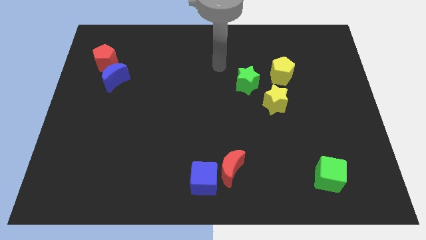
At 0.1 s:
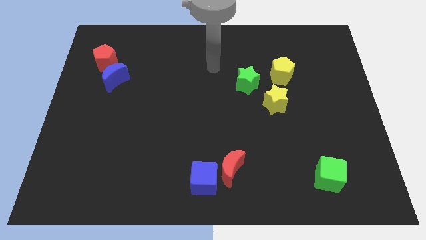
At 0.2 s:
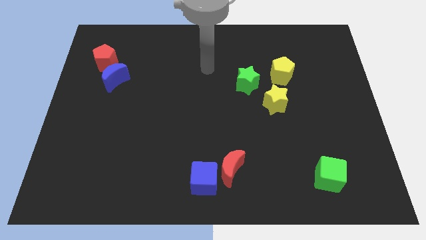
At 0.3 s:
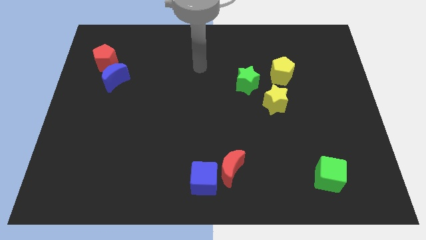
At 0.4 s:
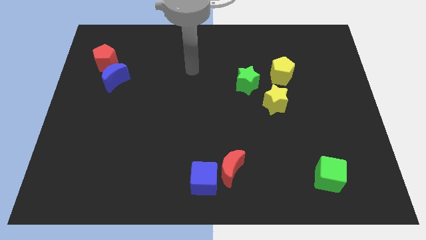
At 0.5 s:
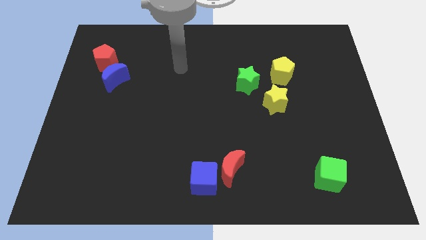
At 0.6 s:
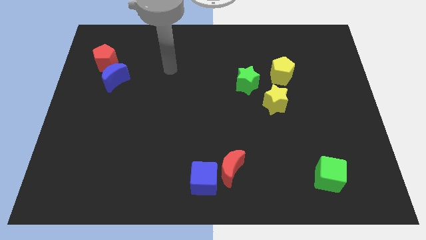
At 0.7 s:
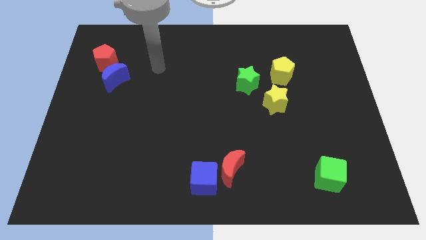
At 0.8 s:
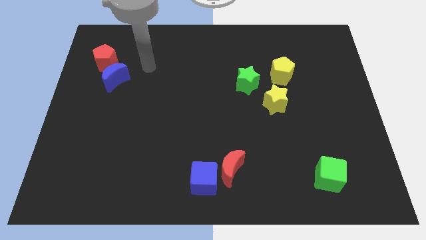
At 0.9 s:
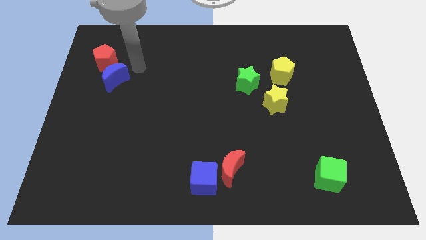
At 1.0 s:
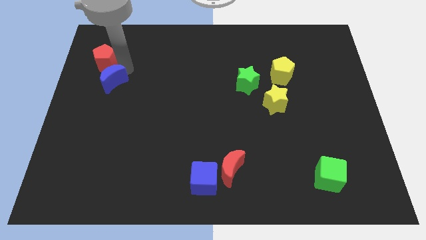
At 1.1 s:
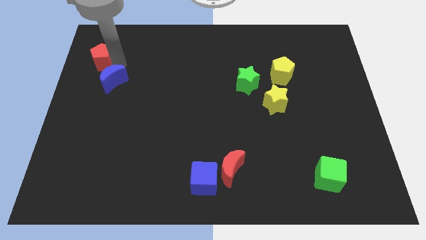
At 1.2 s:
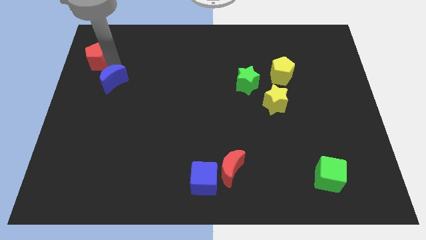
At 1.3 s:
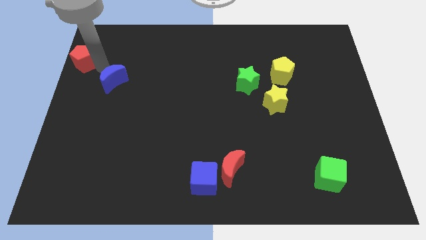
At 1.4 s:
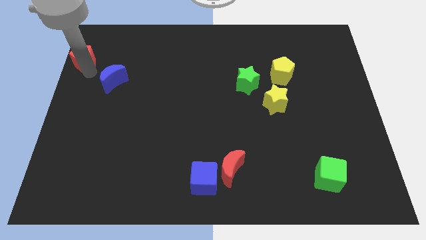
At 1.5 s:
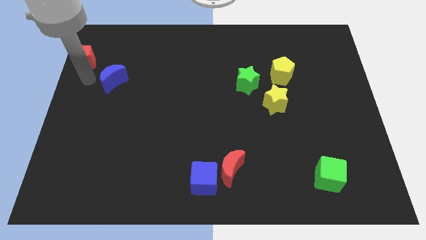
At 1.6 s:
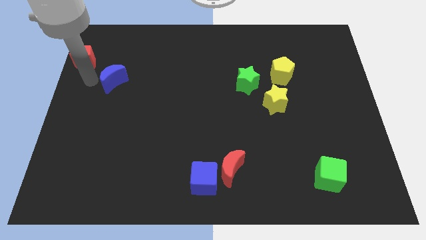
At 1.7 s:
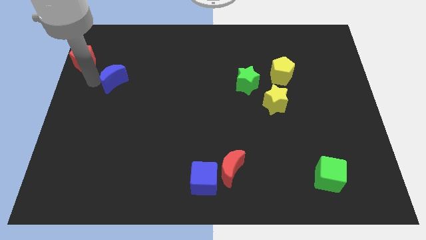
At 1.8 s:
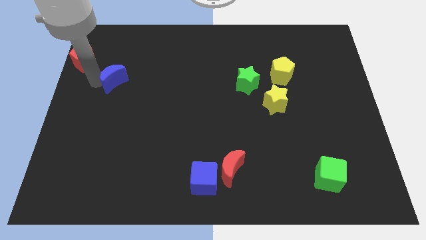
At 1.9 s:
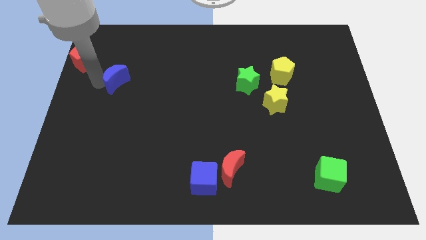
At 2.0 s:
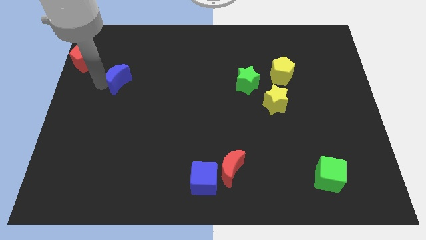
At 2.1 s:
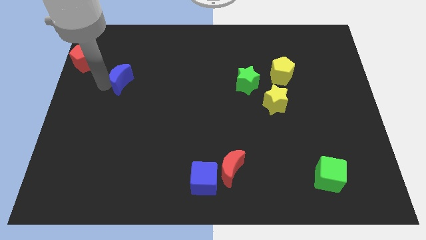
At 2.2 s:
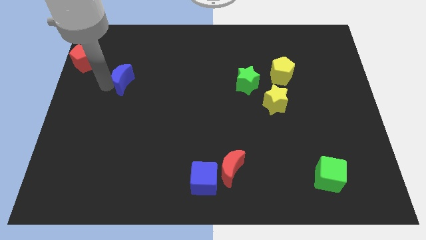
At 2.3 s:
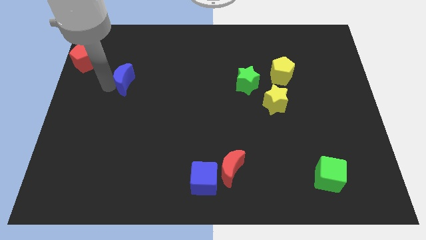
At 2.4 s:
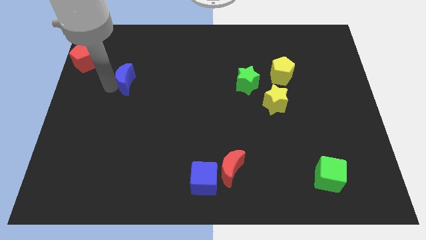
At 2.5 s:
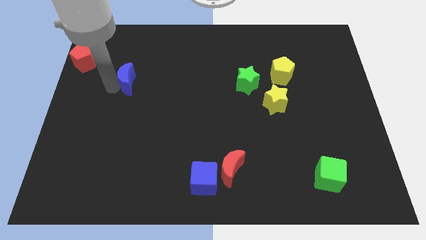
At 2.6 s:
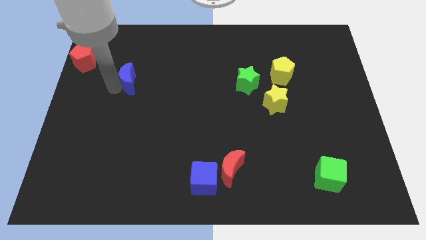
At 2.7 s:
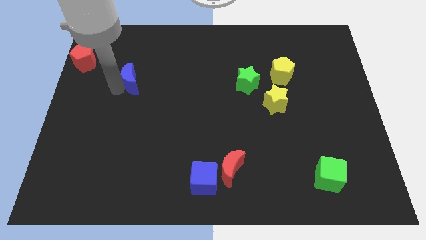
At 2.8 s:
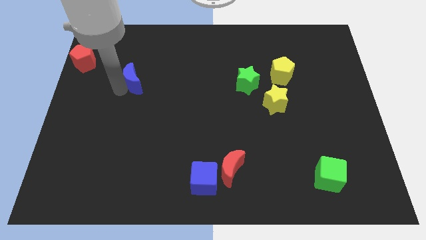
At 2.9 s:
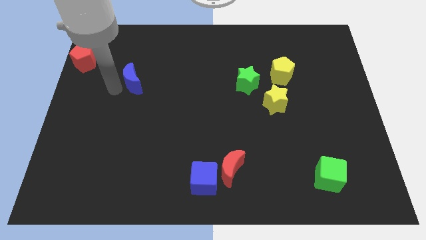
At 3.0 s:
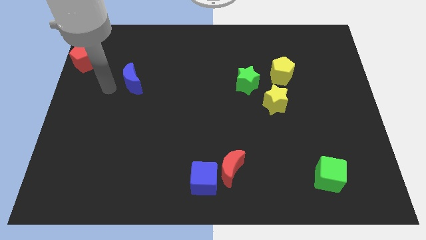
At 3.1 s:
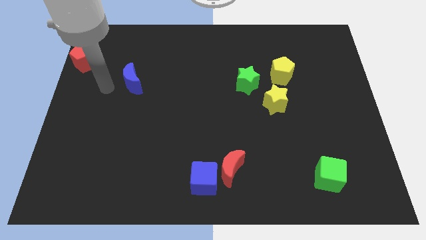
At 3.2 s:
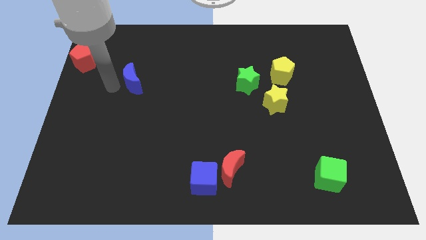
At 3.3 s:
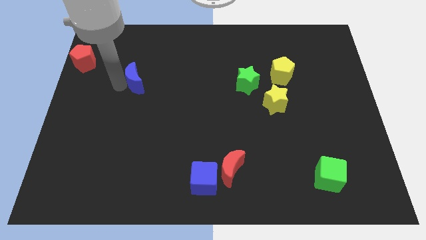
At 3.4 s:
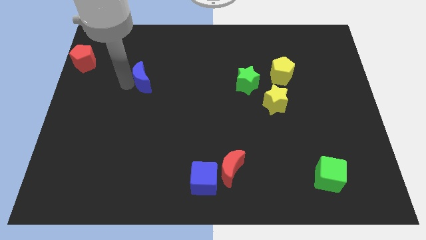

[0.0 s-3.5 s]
slightly move the blue moon to the right

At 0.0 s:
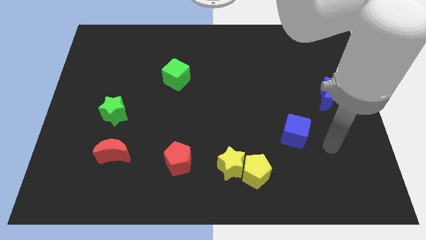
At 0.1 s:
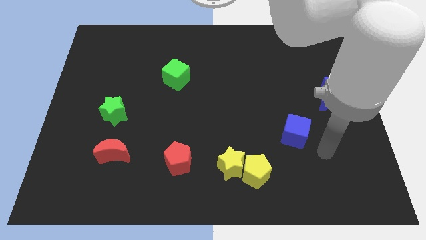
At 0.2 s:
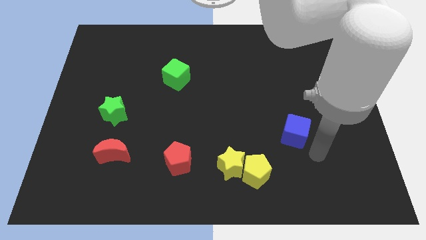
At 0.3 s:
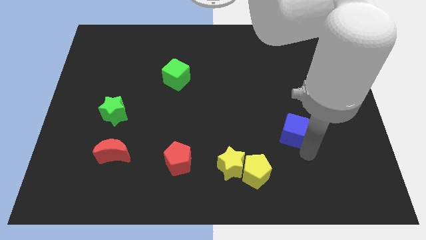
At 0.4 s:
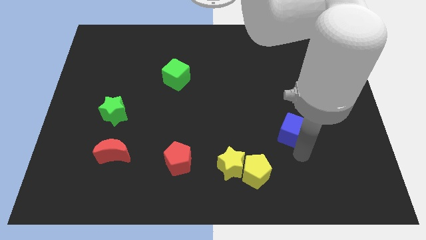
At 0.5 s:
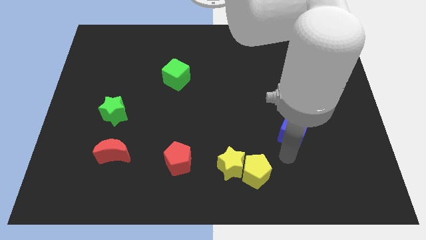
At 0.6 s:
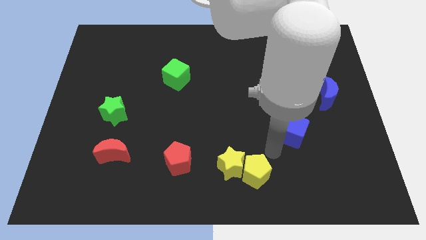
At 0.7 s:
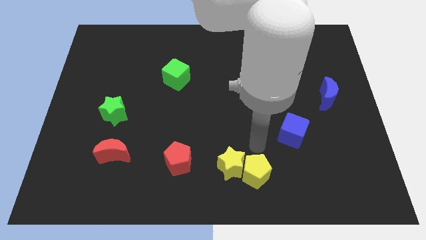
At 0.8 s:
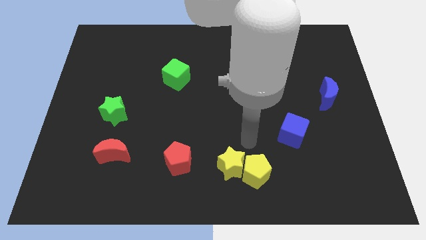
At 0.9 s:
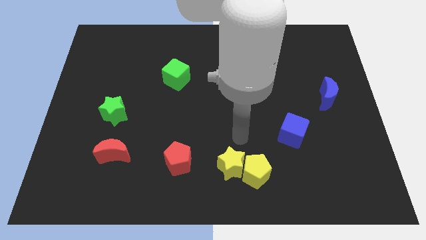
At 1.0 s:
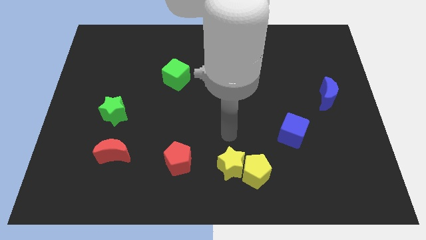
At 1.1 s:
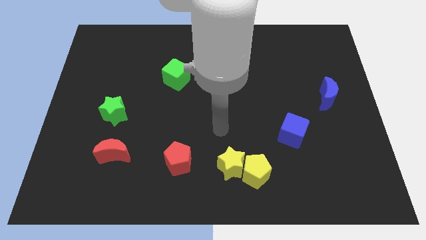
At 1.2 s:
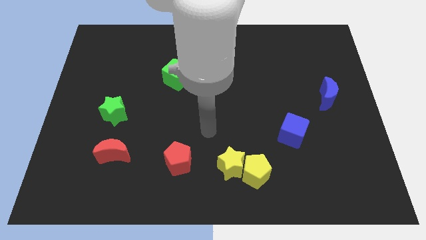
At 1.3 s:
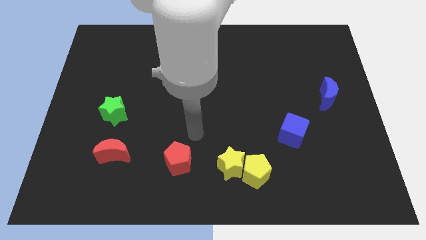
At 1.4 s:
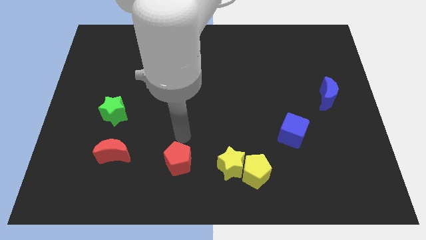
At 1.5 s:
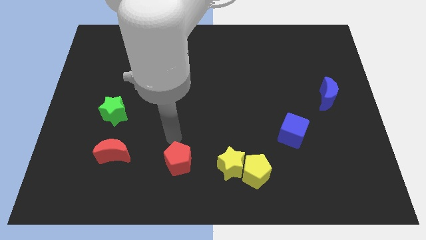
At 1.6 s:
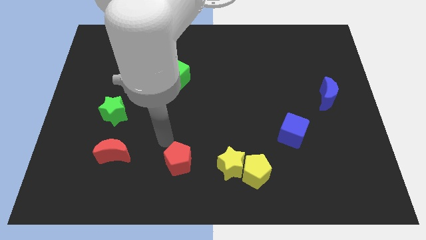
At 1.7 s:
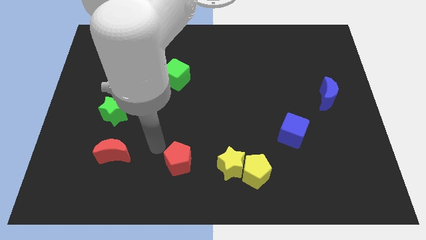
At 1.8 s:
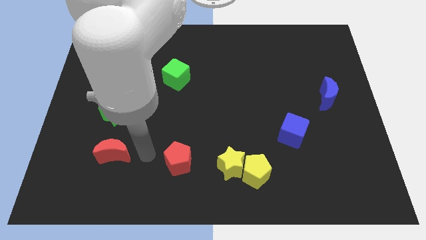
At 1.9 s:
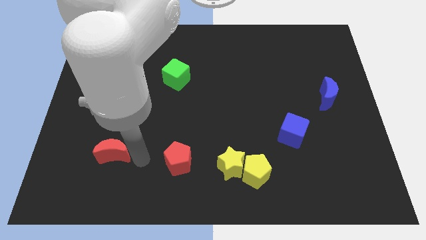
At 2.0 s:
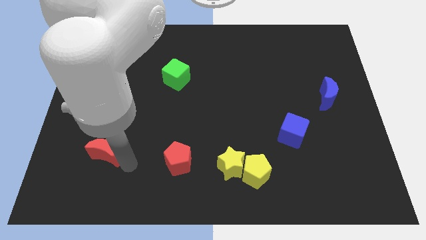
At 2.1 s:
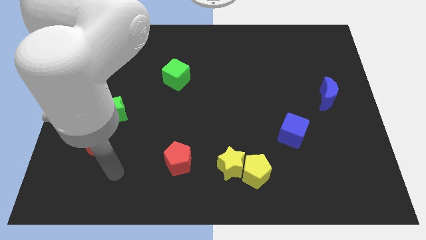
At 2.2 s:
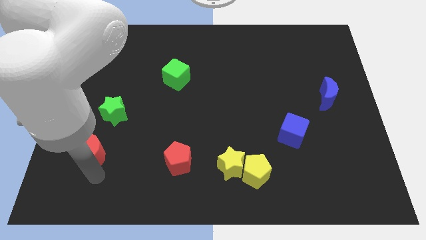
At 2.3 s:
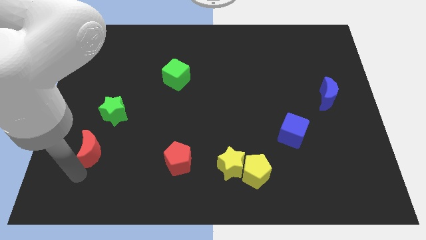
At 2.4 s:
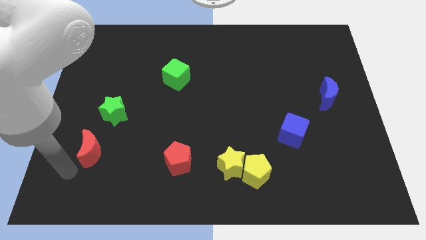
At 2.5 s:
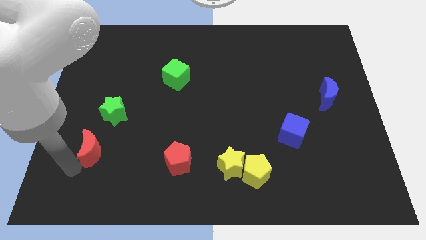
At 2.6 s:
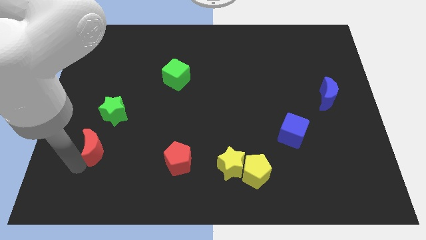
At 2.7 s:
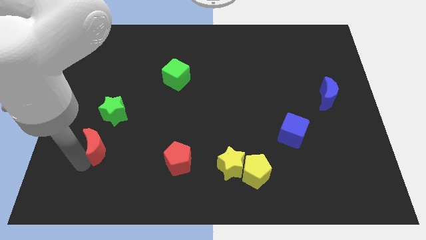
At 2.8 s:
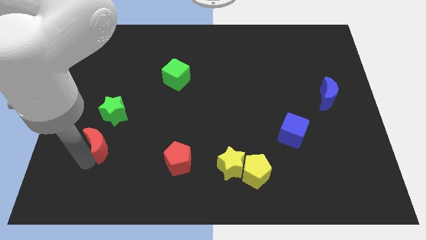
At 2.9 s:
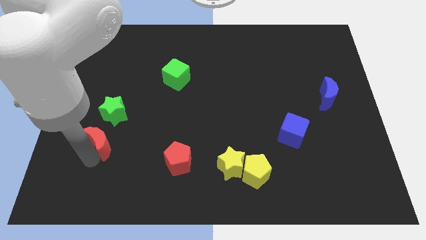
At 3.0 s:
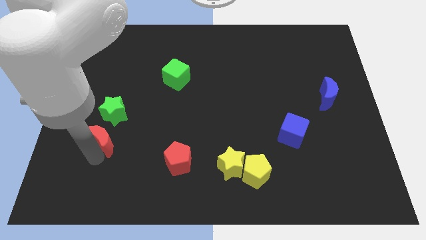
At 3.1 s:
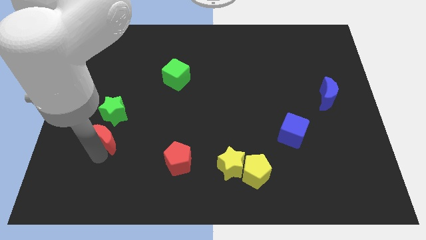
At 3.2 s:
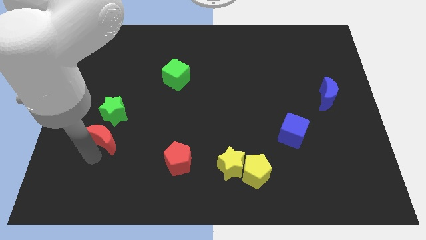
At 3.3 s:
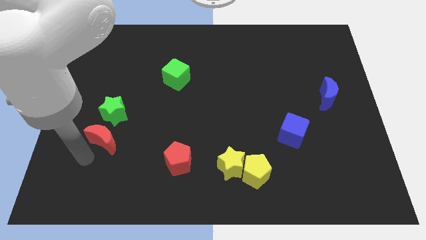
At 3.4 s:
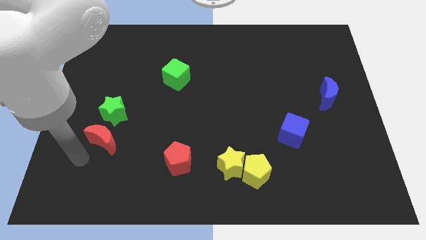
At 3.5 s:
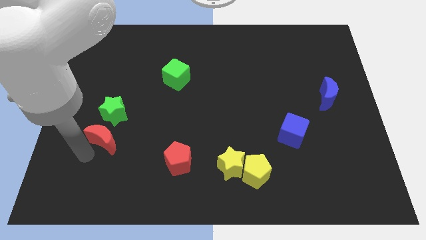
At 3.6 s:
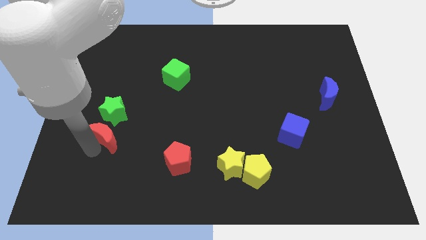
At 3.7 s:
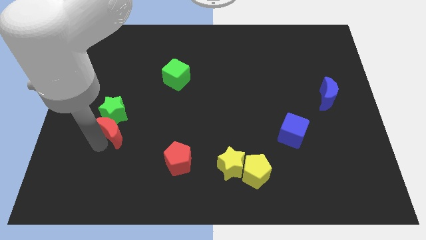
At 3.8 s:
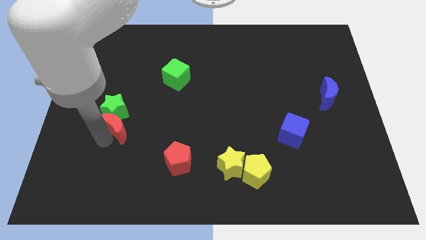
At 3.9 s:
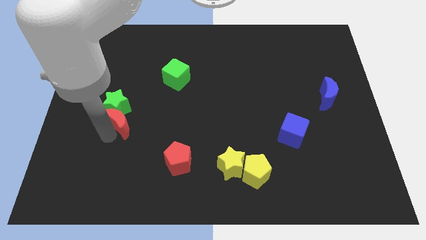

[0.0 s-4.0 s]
push the red moon a bit upwards

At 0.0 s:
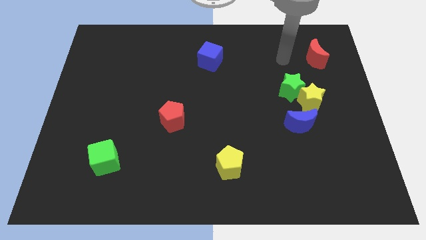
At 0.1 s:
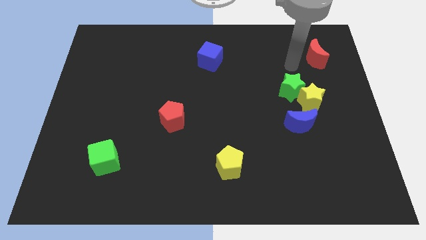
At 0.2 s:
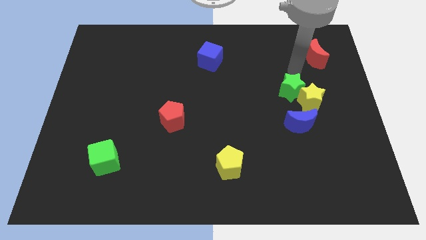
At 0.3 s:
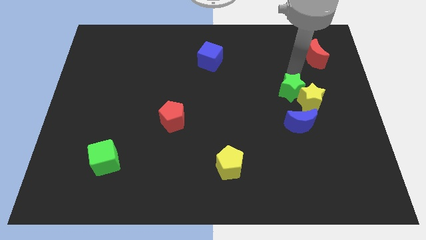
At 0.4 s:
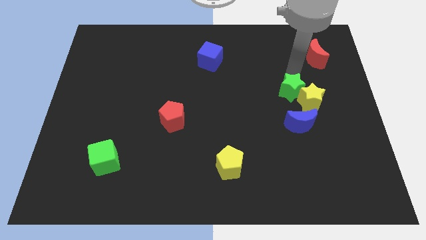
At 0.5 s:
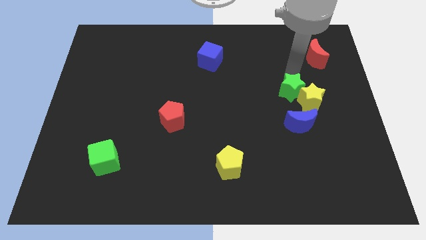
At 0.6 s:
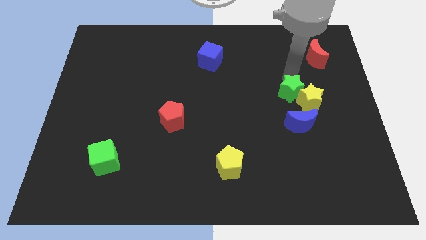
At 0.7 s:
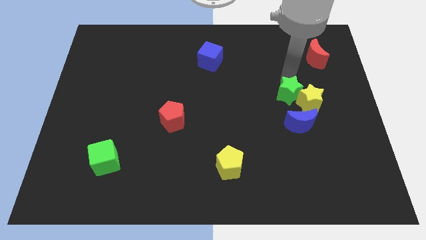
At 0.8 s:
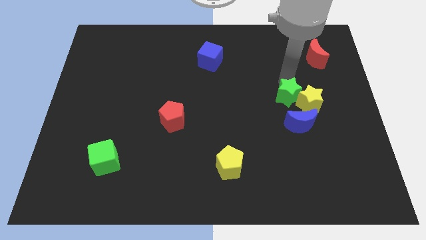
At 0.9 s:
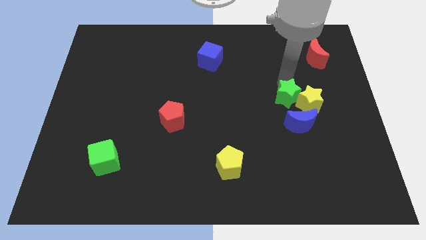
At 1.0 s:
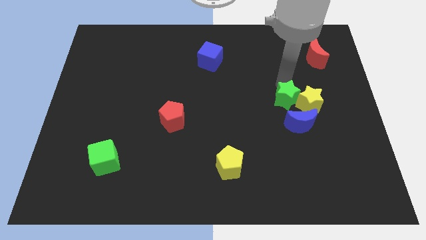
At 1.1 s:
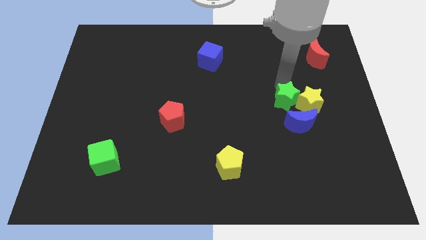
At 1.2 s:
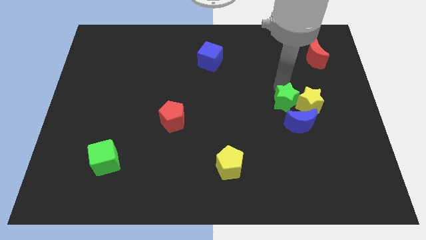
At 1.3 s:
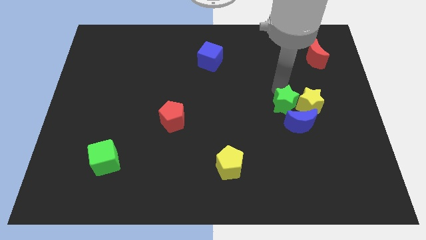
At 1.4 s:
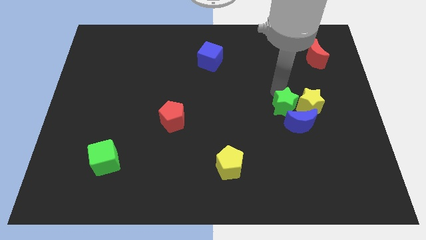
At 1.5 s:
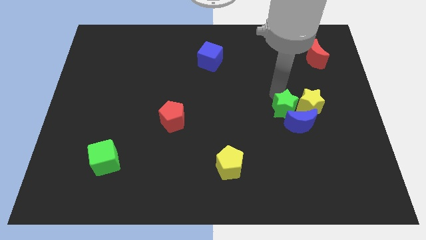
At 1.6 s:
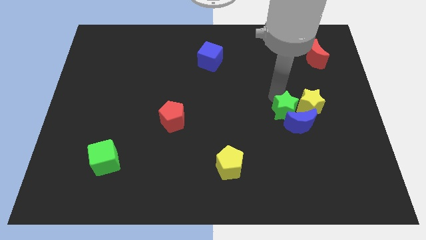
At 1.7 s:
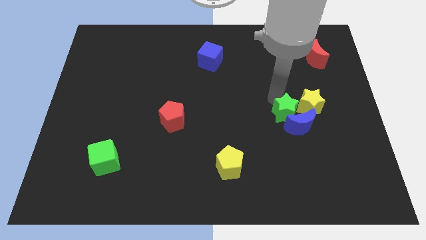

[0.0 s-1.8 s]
push the green star a little bit down
